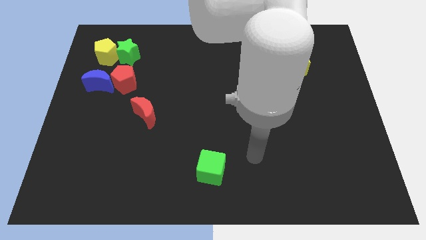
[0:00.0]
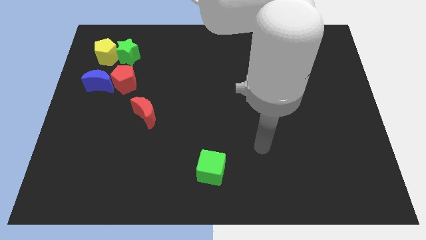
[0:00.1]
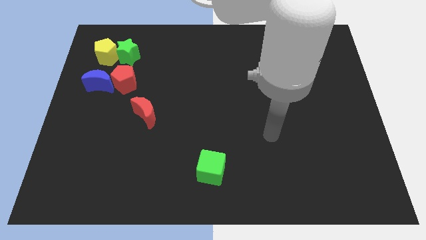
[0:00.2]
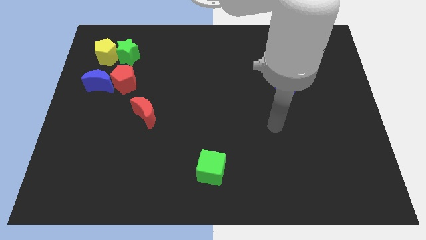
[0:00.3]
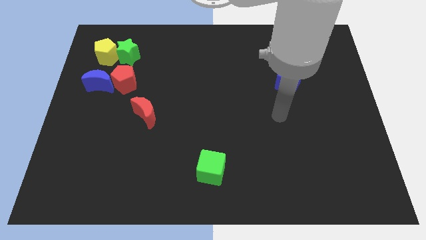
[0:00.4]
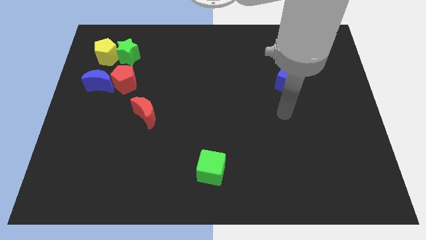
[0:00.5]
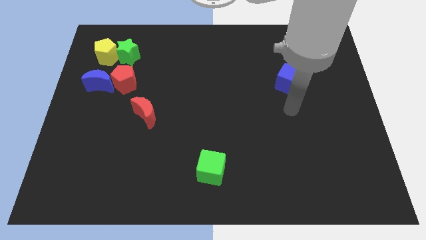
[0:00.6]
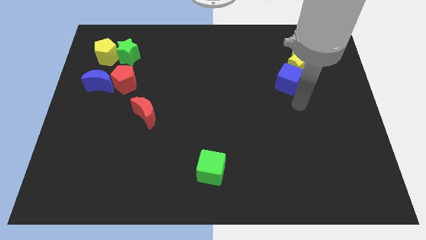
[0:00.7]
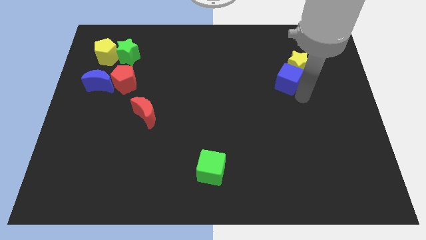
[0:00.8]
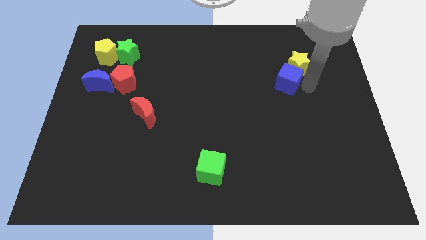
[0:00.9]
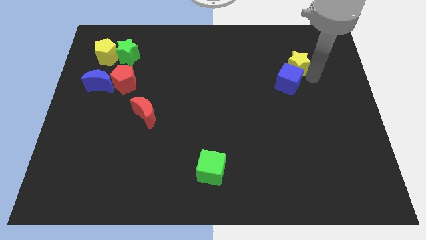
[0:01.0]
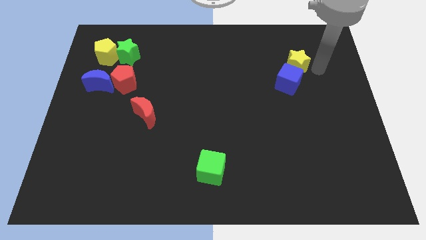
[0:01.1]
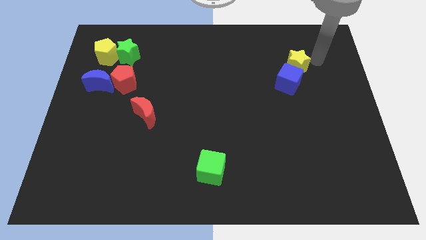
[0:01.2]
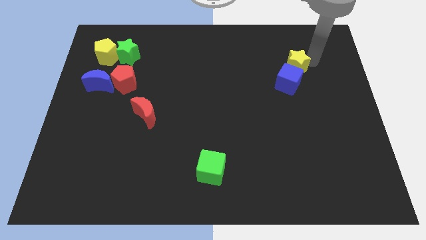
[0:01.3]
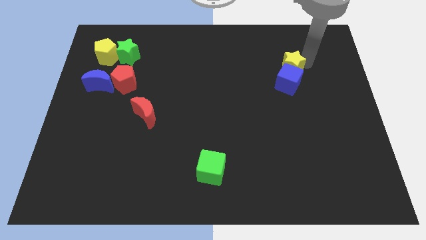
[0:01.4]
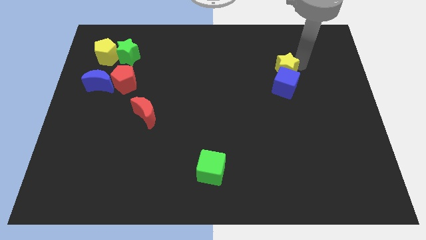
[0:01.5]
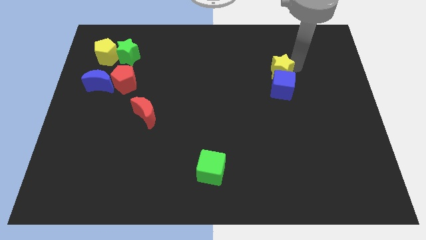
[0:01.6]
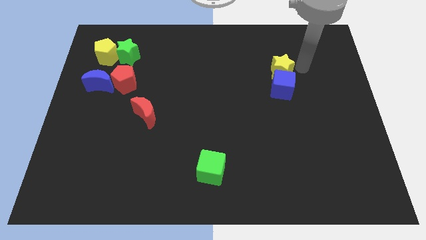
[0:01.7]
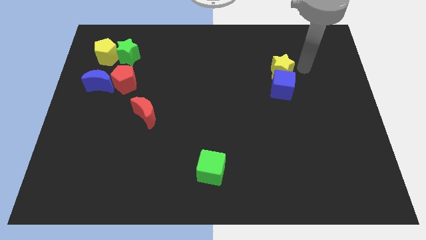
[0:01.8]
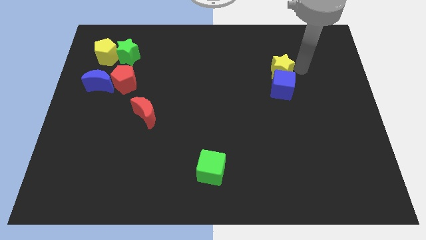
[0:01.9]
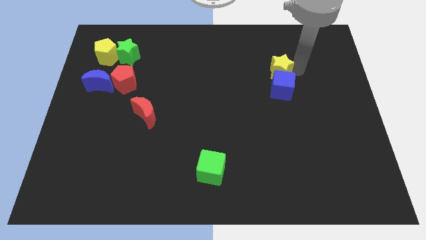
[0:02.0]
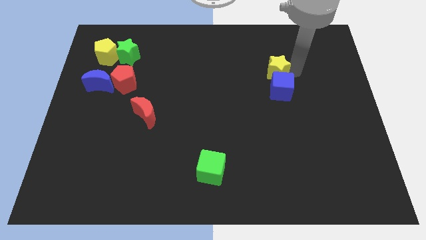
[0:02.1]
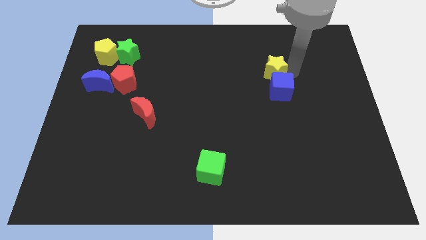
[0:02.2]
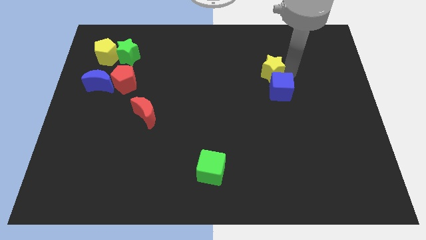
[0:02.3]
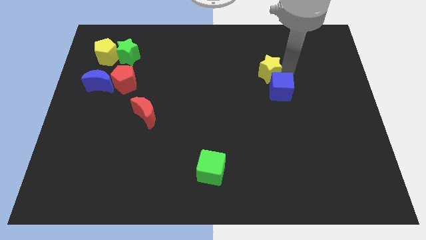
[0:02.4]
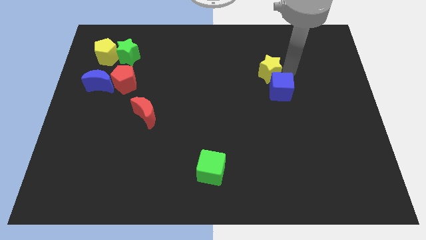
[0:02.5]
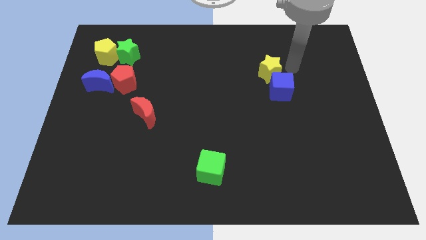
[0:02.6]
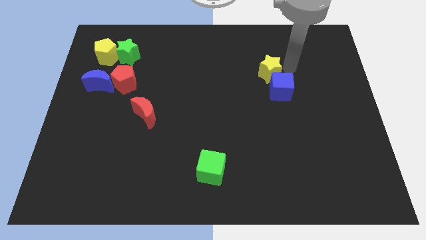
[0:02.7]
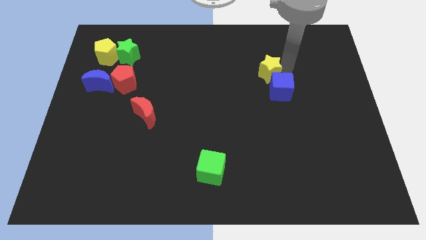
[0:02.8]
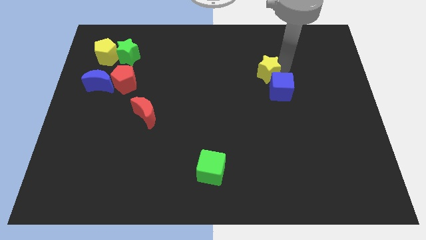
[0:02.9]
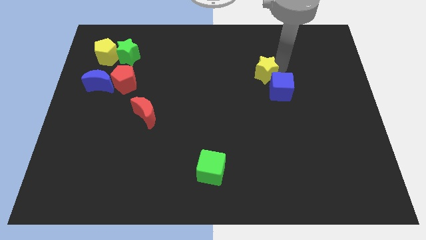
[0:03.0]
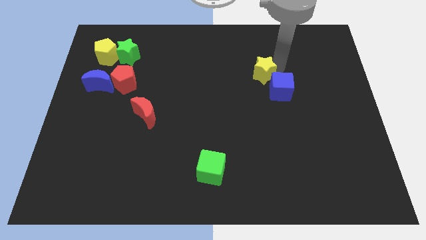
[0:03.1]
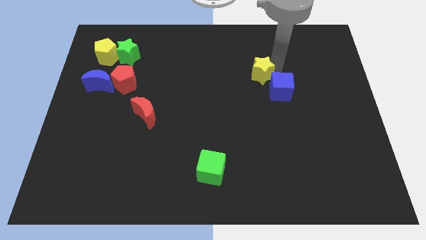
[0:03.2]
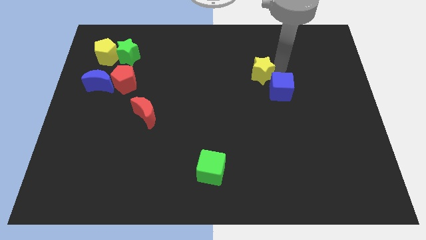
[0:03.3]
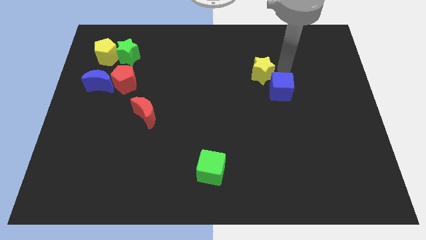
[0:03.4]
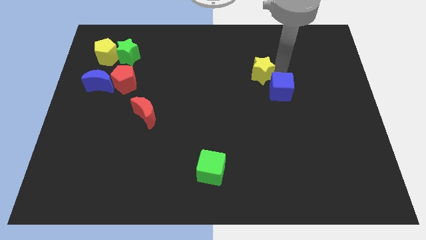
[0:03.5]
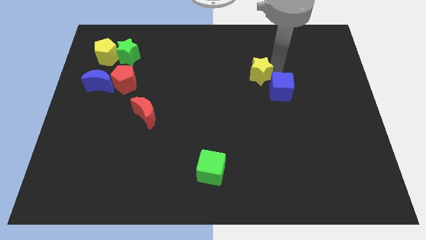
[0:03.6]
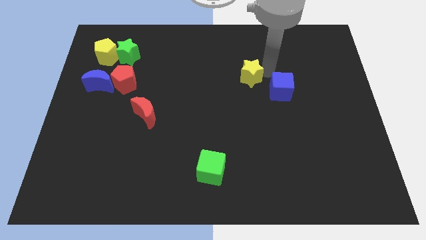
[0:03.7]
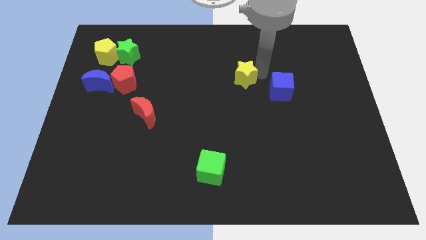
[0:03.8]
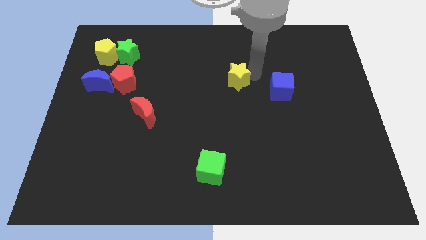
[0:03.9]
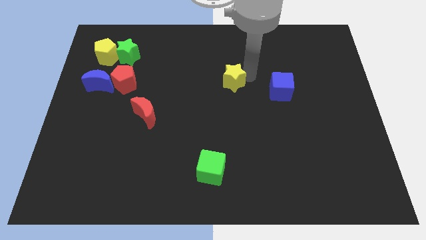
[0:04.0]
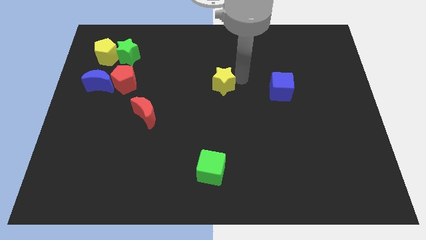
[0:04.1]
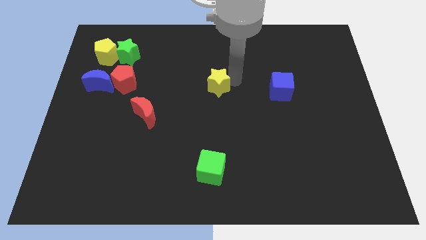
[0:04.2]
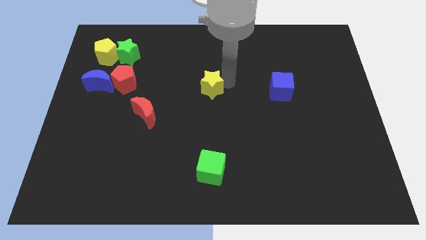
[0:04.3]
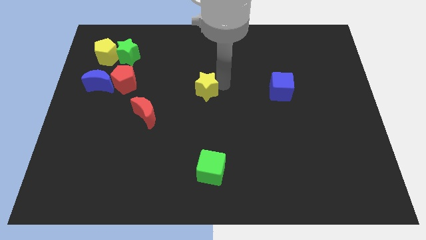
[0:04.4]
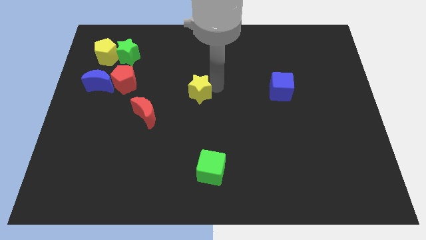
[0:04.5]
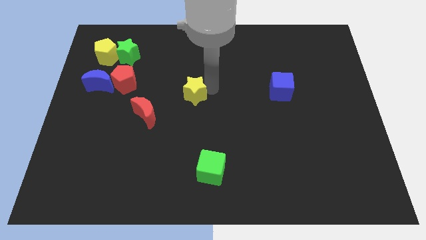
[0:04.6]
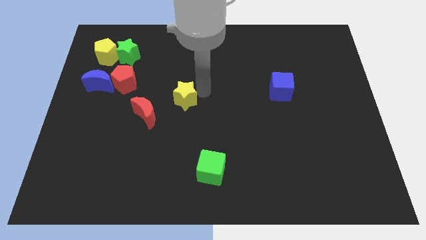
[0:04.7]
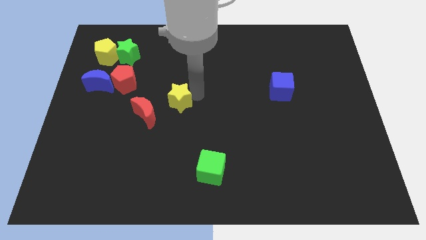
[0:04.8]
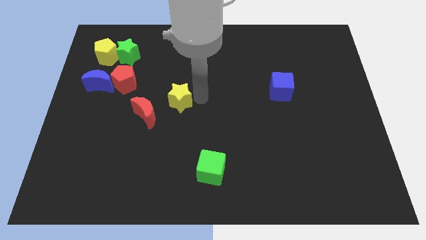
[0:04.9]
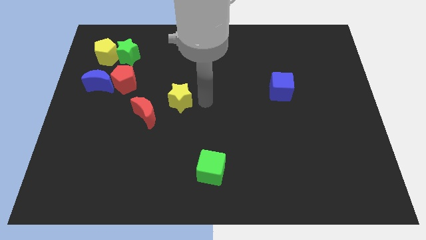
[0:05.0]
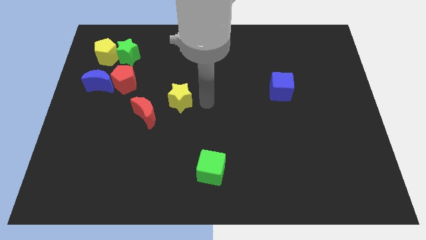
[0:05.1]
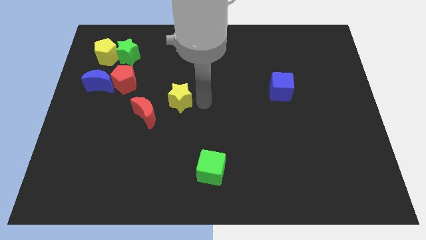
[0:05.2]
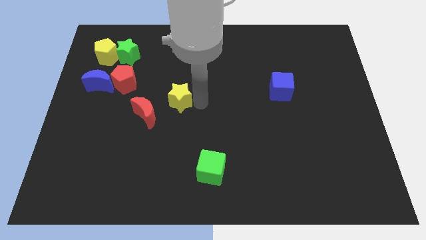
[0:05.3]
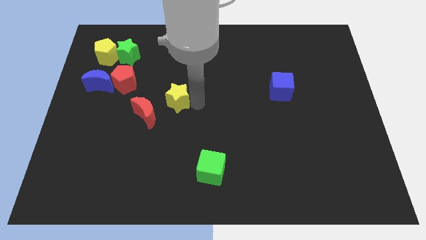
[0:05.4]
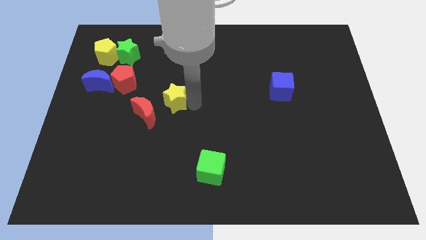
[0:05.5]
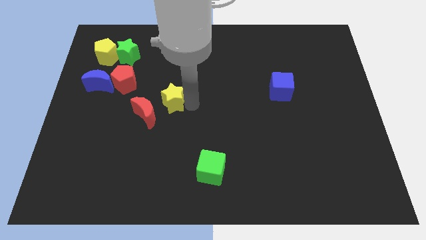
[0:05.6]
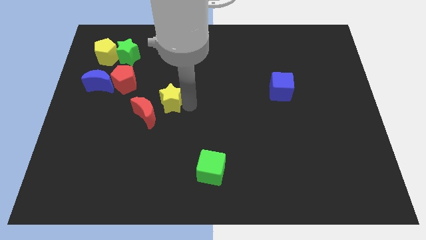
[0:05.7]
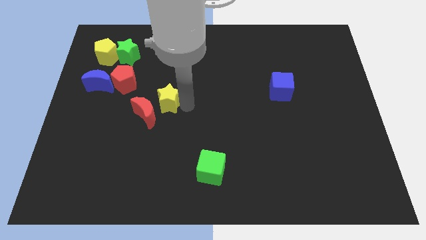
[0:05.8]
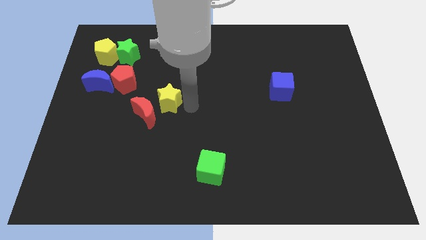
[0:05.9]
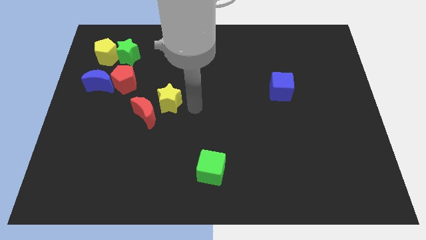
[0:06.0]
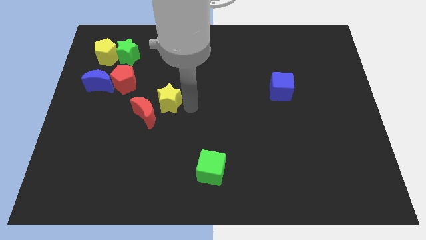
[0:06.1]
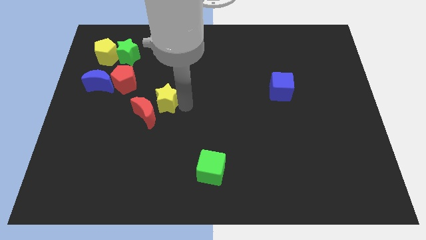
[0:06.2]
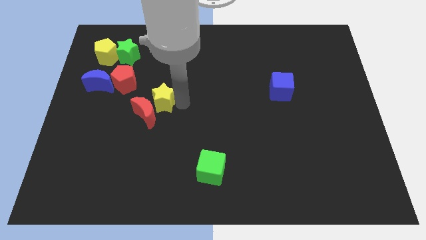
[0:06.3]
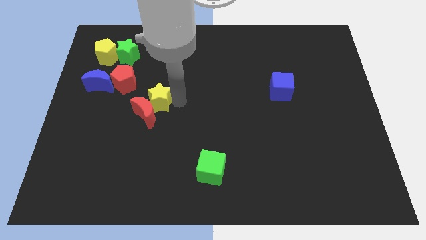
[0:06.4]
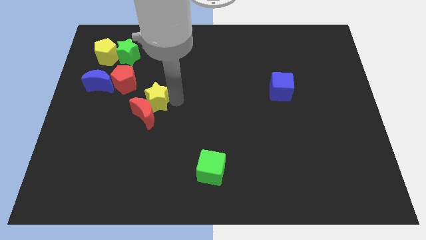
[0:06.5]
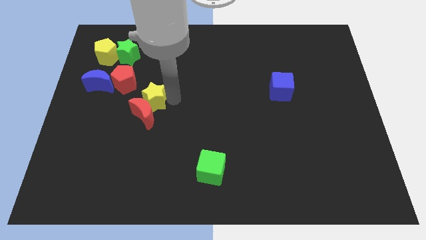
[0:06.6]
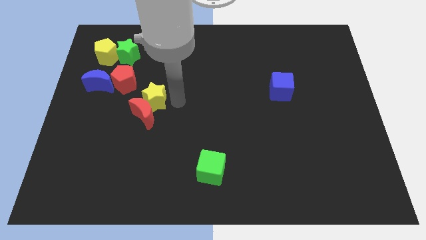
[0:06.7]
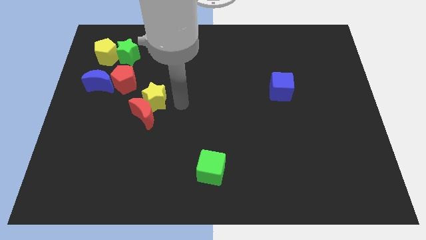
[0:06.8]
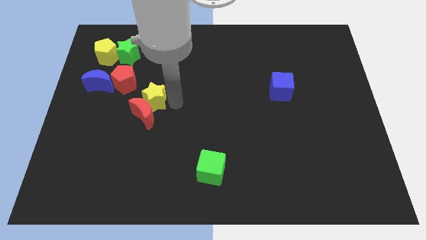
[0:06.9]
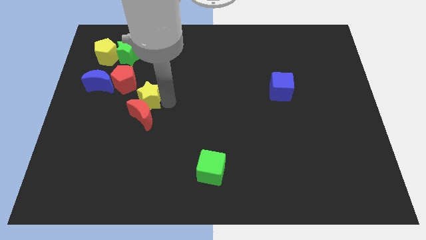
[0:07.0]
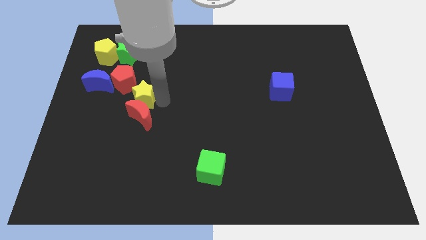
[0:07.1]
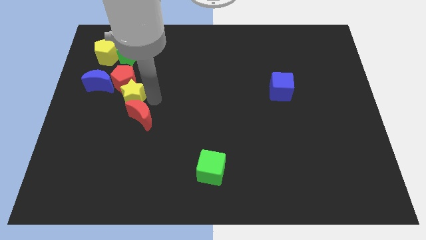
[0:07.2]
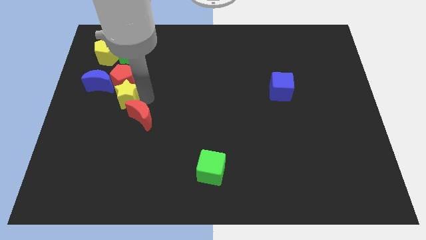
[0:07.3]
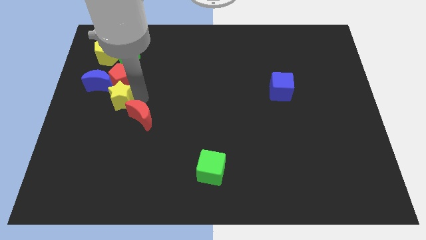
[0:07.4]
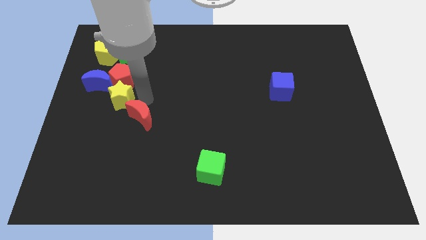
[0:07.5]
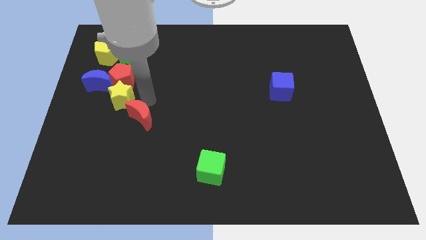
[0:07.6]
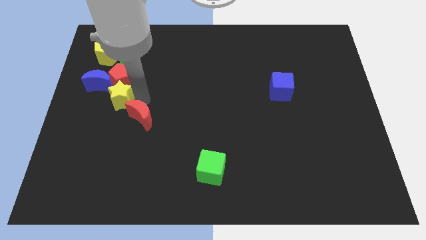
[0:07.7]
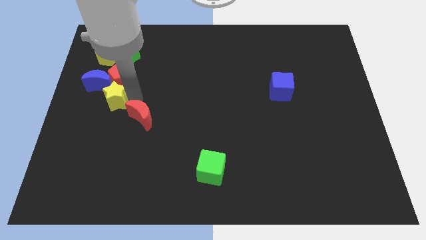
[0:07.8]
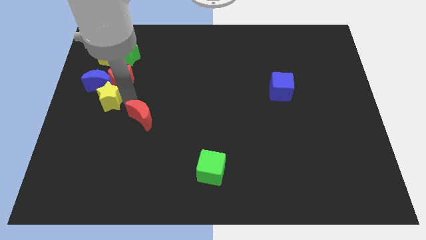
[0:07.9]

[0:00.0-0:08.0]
slide the yellow star below the yellow pentagon
